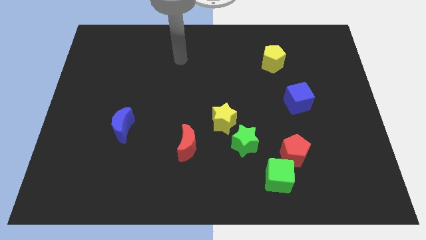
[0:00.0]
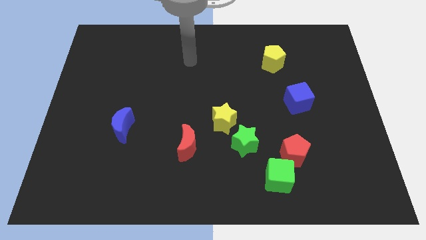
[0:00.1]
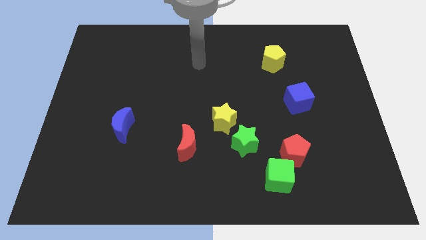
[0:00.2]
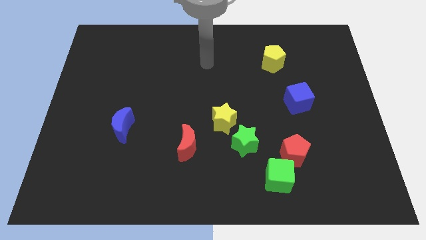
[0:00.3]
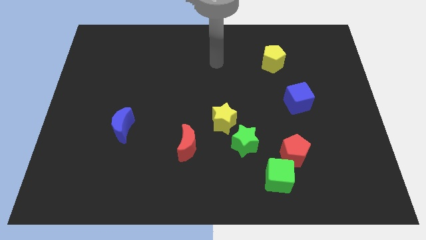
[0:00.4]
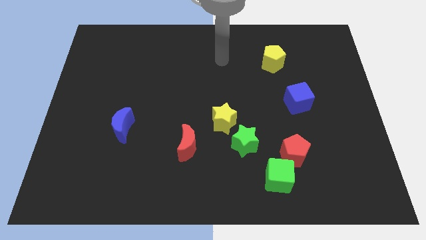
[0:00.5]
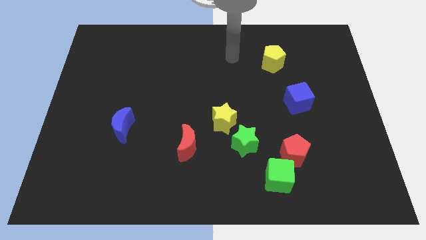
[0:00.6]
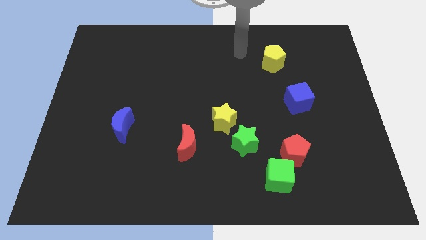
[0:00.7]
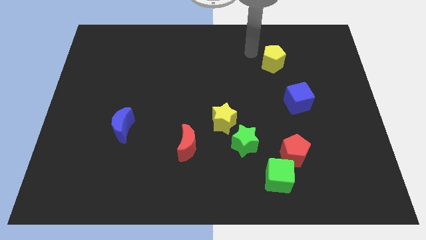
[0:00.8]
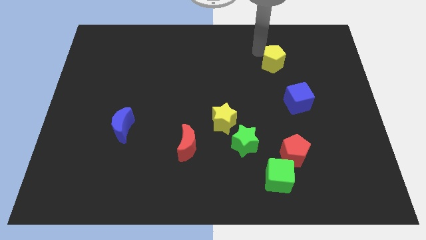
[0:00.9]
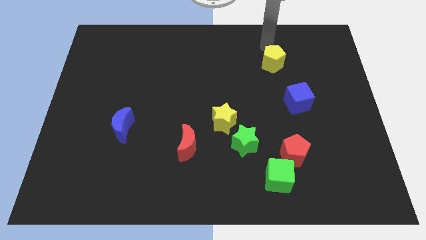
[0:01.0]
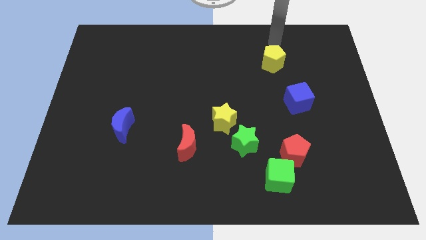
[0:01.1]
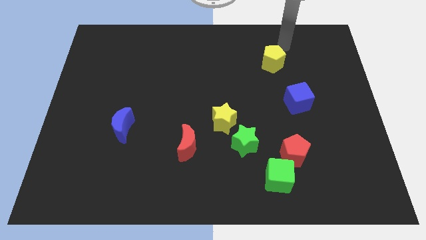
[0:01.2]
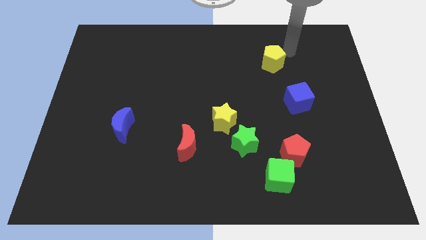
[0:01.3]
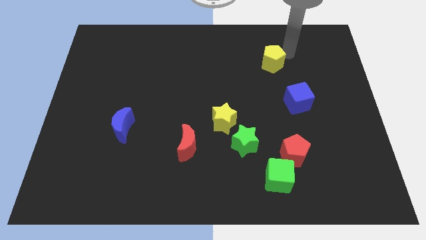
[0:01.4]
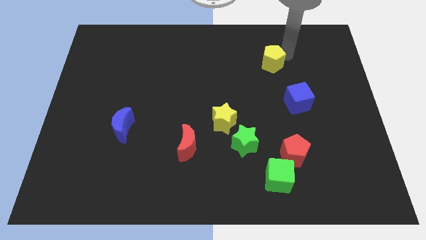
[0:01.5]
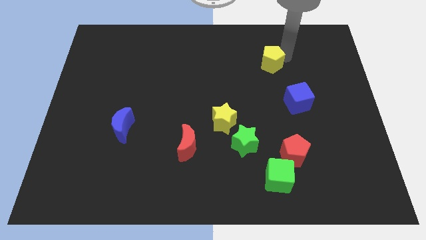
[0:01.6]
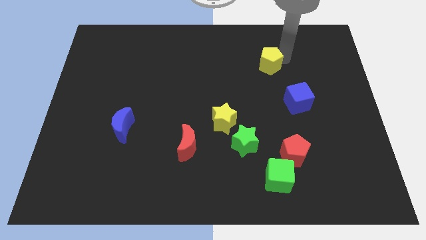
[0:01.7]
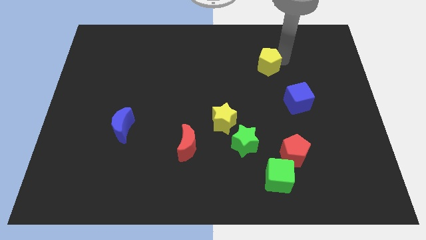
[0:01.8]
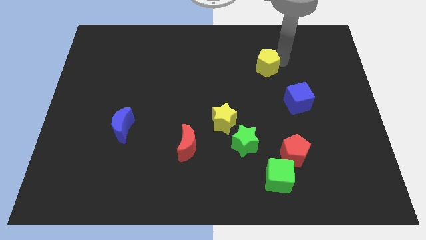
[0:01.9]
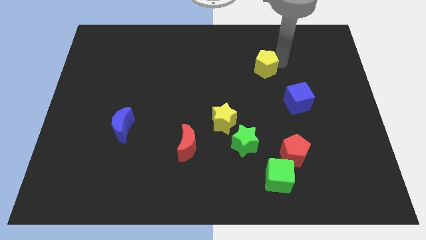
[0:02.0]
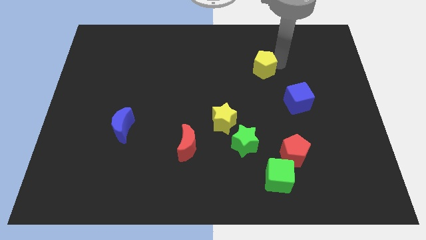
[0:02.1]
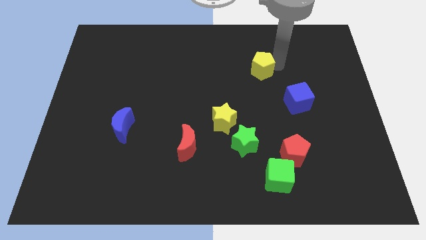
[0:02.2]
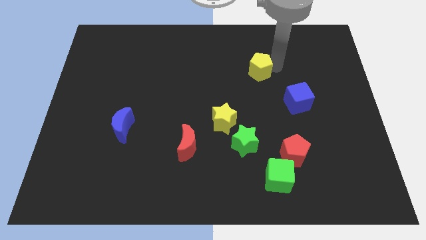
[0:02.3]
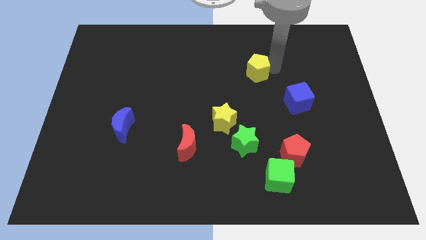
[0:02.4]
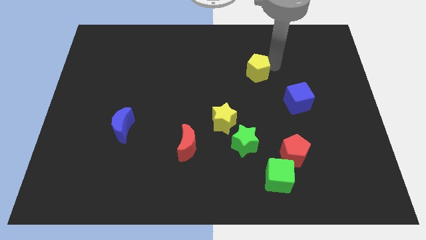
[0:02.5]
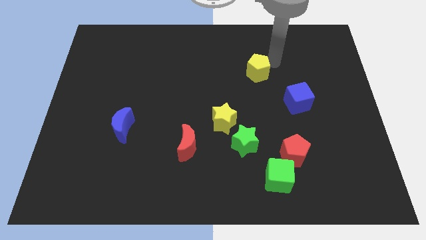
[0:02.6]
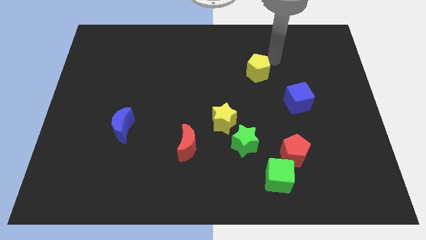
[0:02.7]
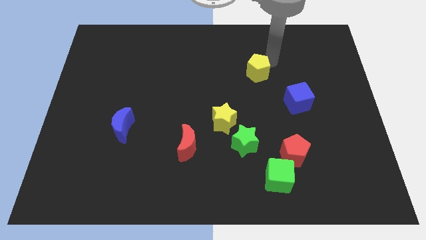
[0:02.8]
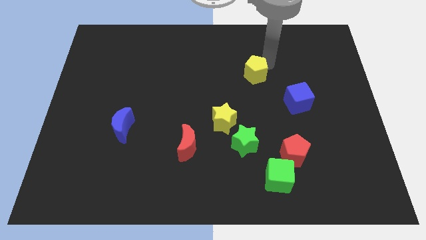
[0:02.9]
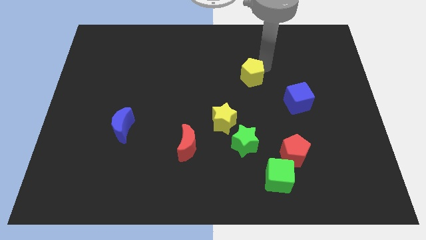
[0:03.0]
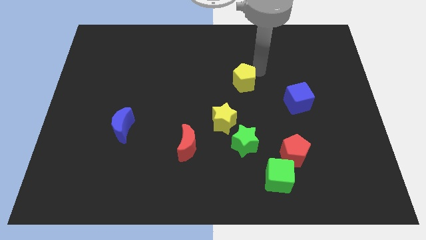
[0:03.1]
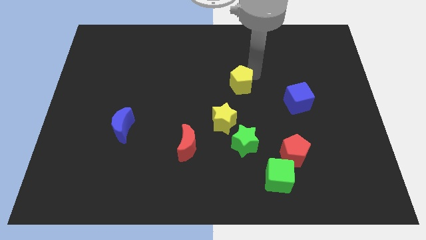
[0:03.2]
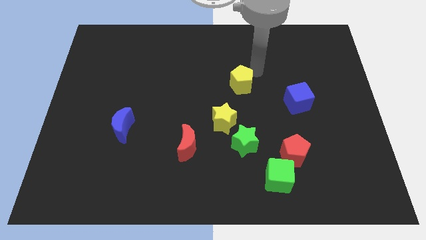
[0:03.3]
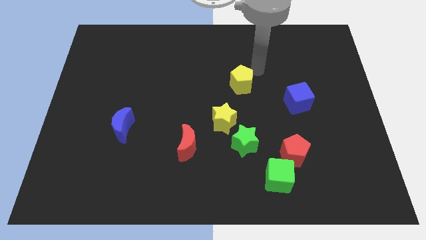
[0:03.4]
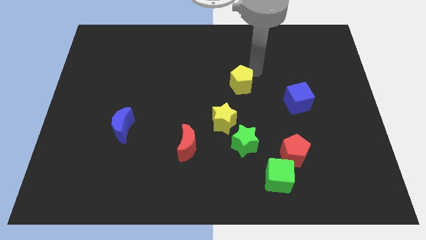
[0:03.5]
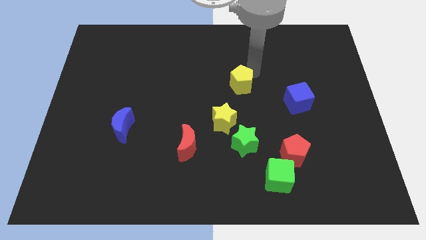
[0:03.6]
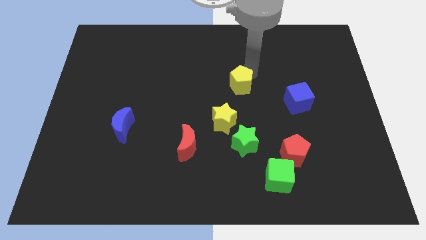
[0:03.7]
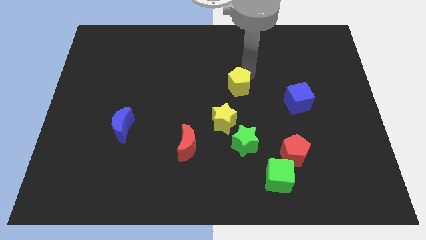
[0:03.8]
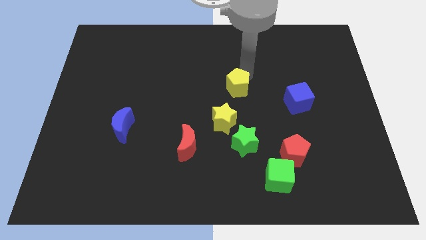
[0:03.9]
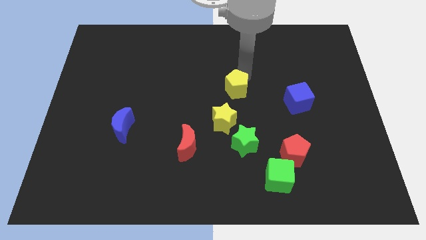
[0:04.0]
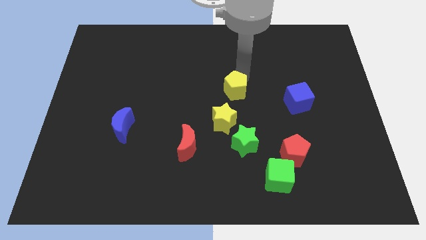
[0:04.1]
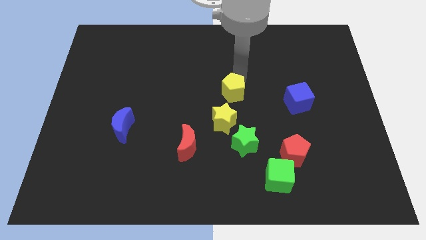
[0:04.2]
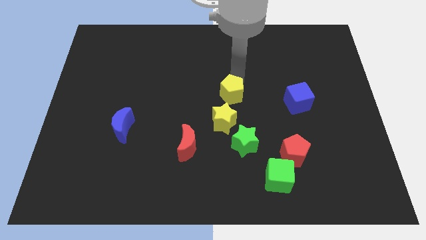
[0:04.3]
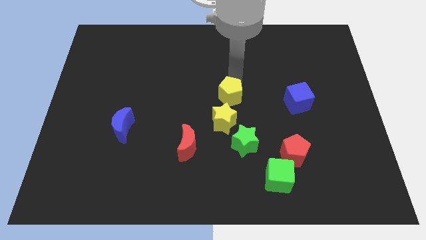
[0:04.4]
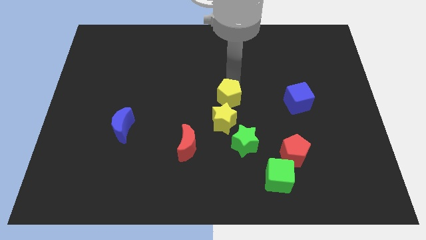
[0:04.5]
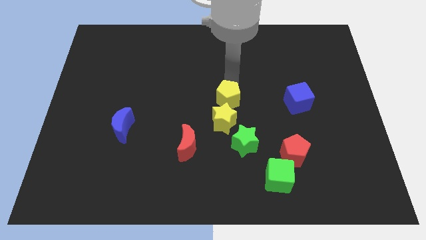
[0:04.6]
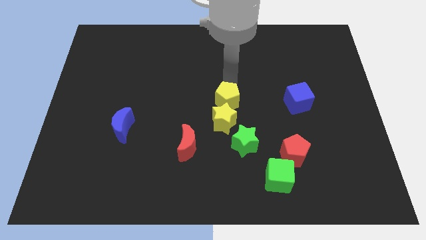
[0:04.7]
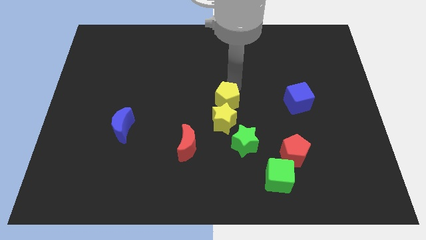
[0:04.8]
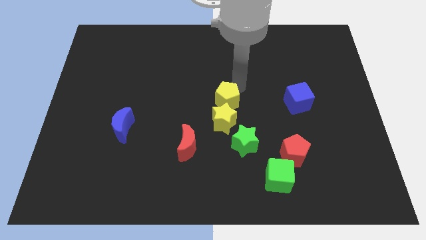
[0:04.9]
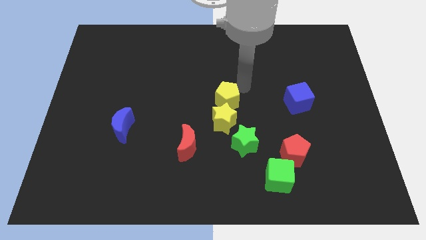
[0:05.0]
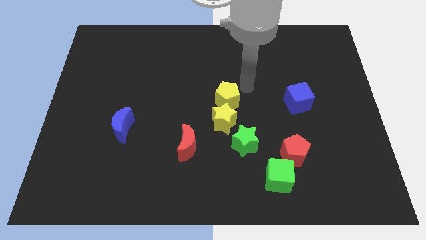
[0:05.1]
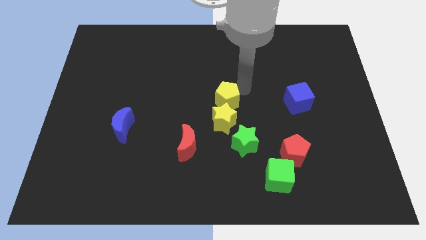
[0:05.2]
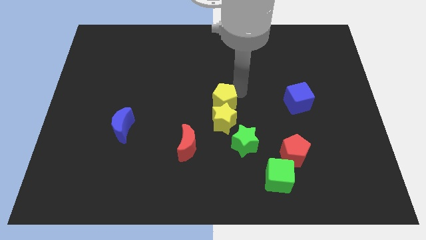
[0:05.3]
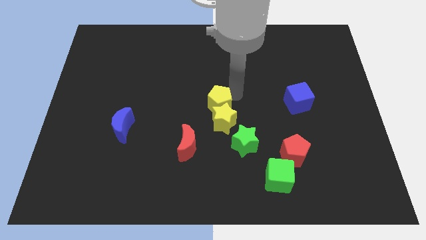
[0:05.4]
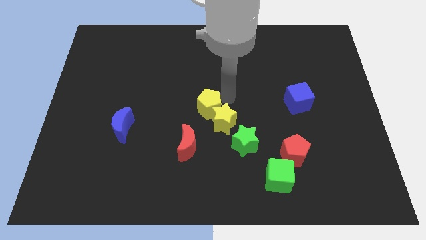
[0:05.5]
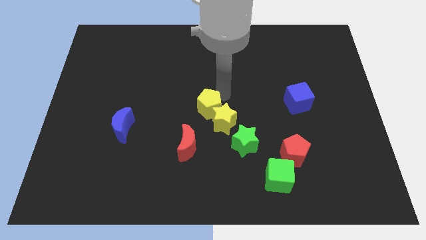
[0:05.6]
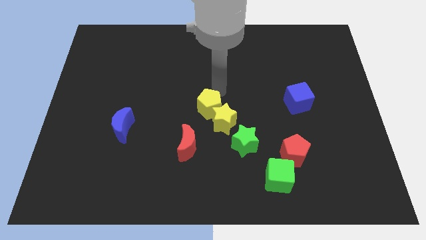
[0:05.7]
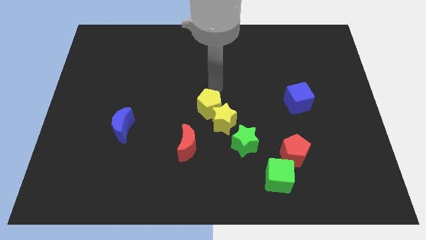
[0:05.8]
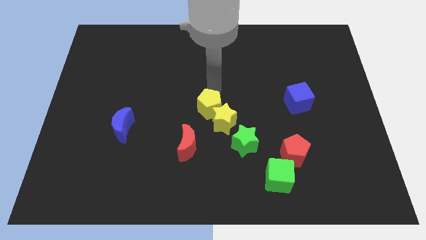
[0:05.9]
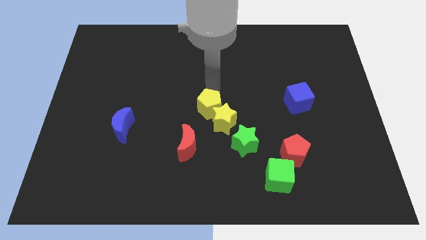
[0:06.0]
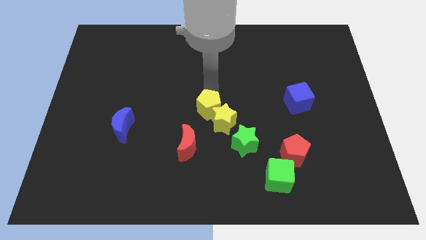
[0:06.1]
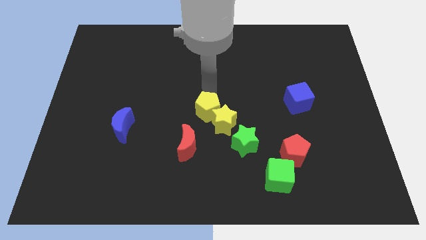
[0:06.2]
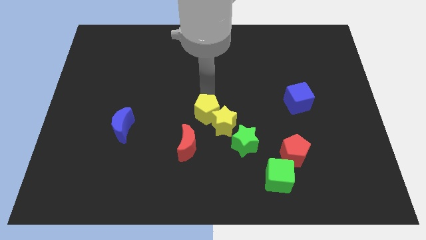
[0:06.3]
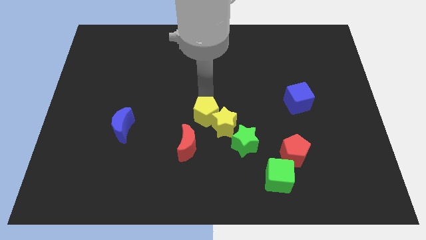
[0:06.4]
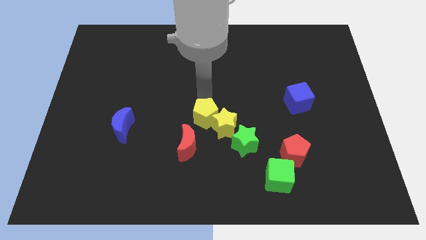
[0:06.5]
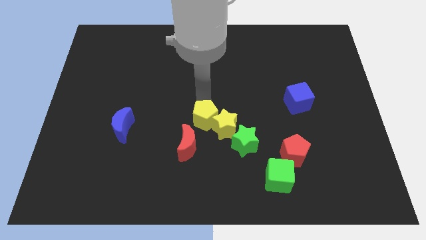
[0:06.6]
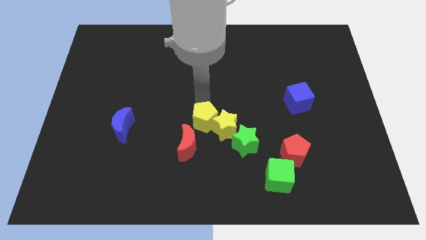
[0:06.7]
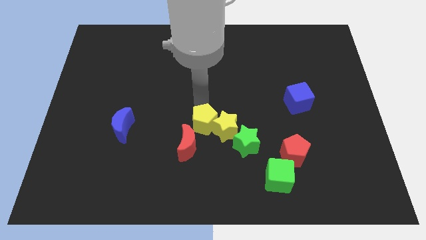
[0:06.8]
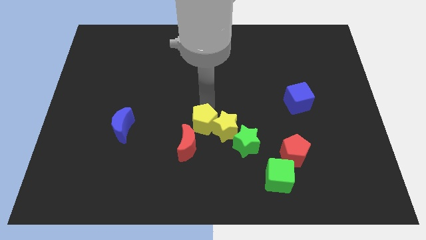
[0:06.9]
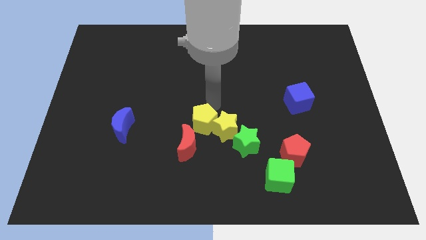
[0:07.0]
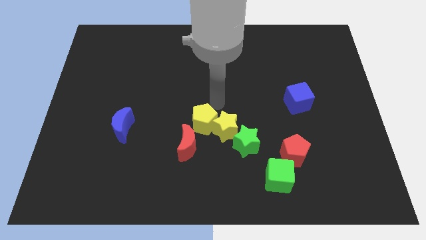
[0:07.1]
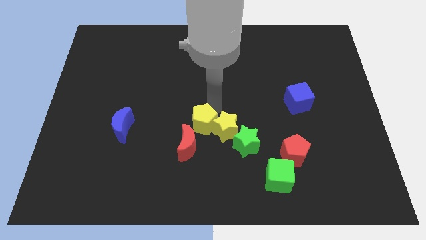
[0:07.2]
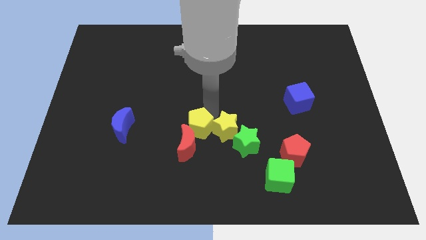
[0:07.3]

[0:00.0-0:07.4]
put the yellow pentagon close to the red moon
